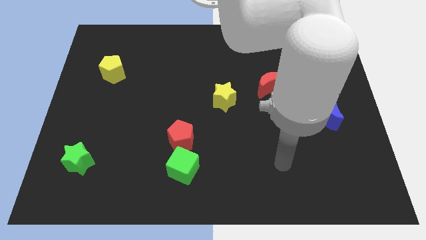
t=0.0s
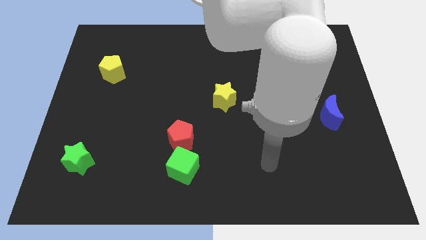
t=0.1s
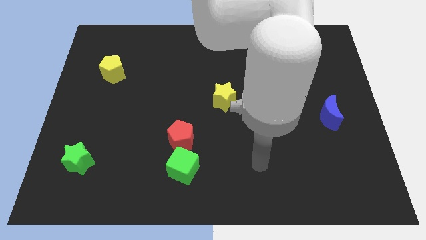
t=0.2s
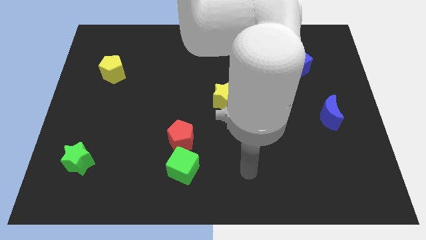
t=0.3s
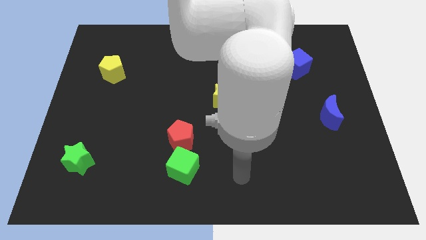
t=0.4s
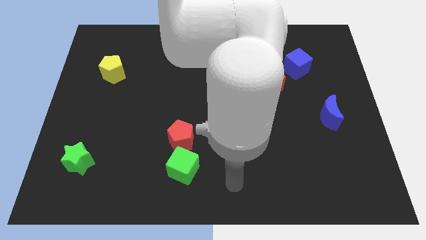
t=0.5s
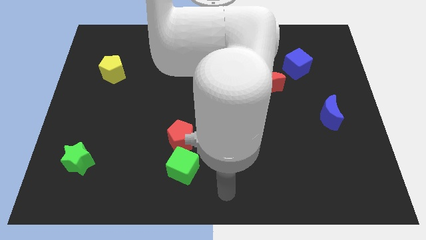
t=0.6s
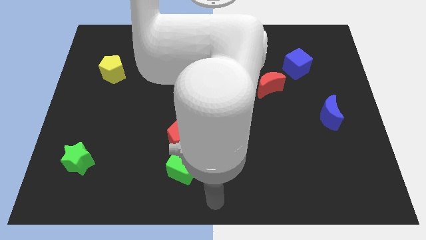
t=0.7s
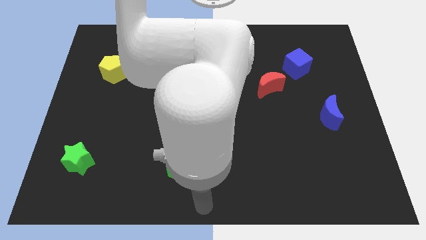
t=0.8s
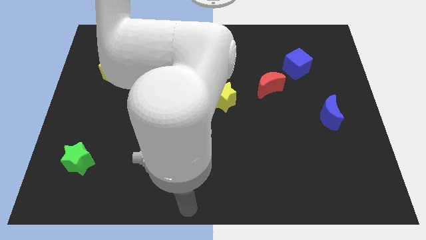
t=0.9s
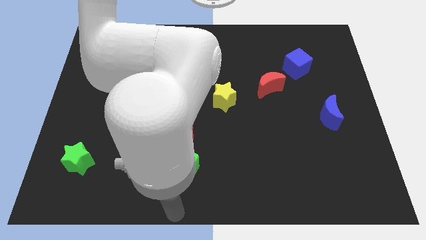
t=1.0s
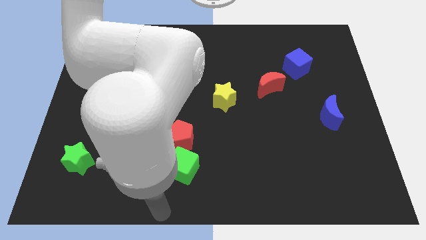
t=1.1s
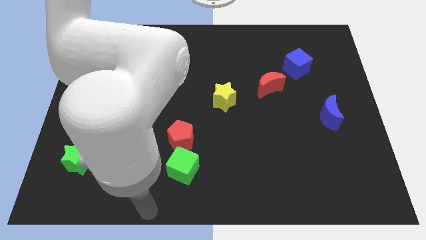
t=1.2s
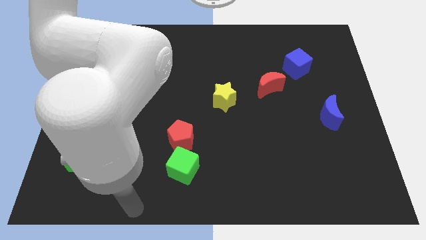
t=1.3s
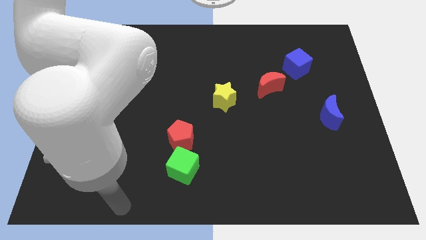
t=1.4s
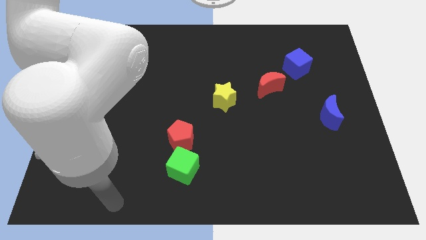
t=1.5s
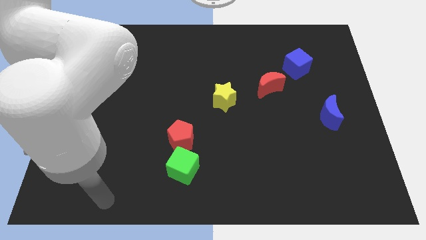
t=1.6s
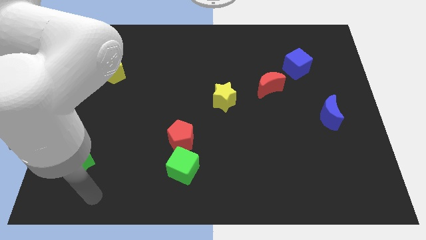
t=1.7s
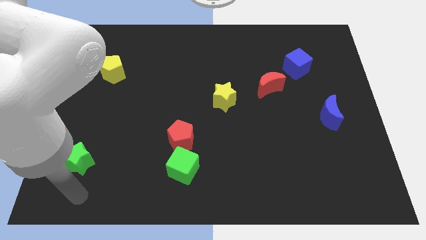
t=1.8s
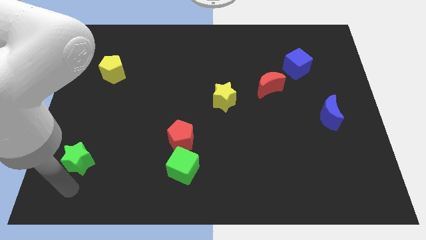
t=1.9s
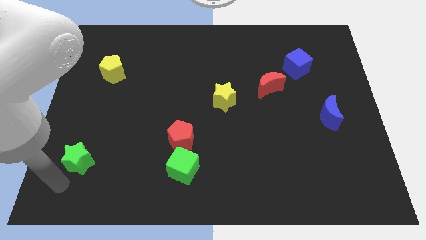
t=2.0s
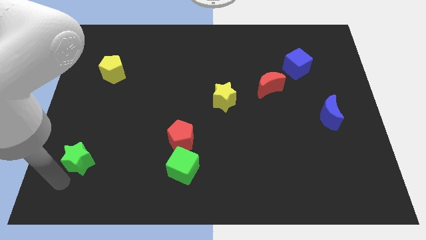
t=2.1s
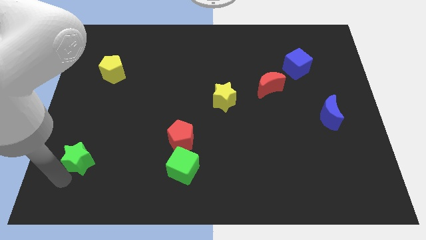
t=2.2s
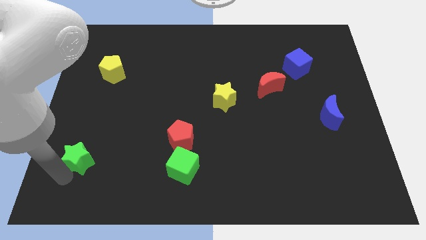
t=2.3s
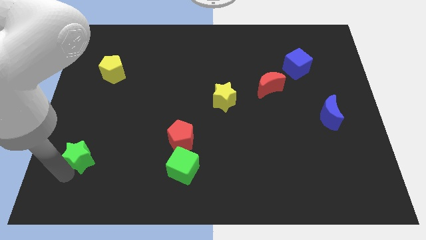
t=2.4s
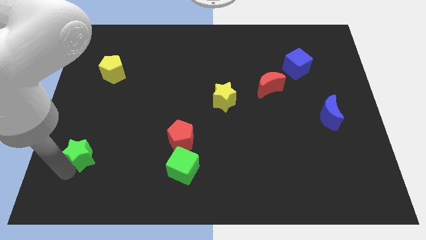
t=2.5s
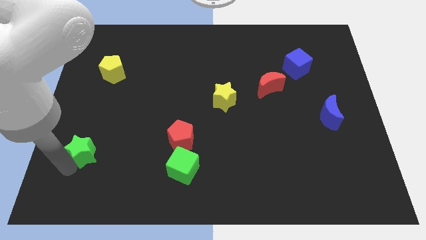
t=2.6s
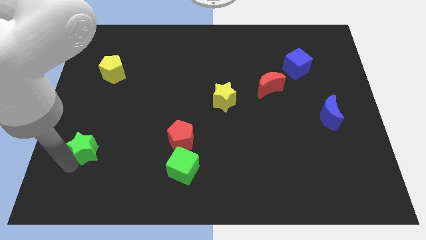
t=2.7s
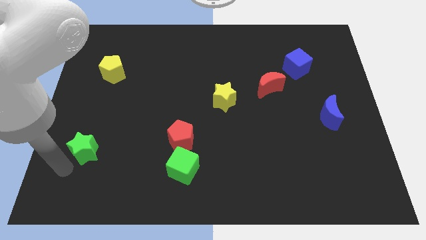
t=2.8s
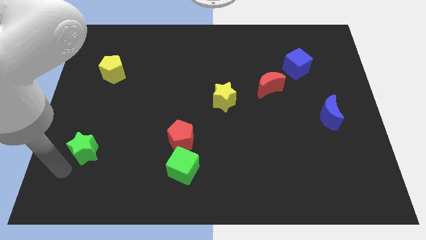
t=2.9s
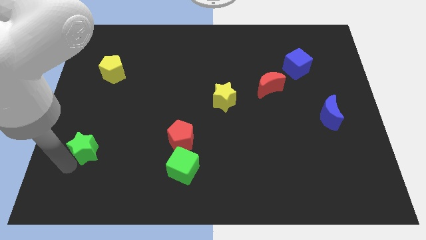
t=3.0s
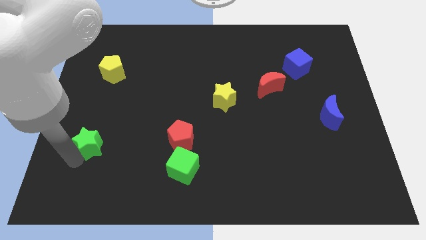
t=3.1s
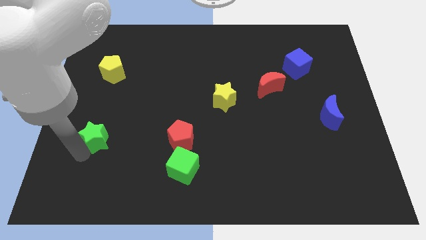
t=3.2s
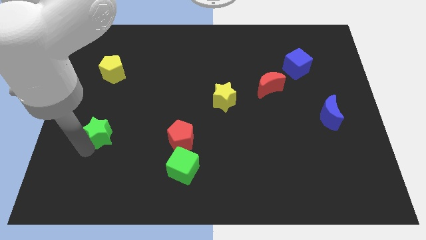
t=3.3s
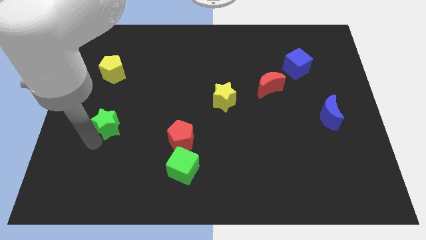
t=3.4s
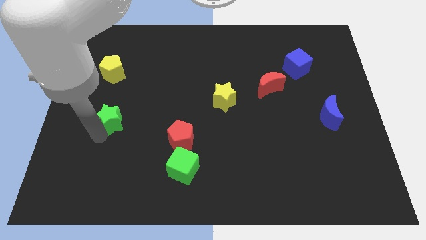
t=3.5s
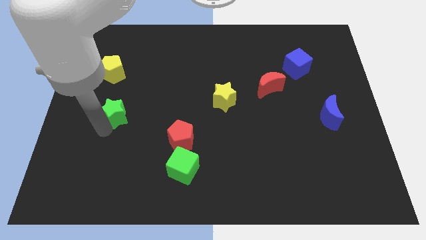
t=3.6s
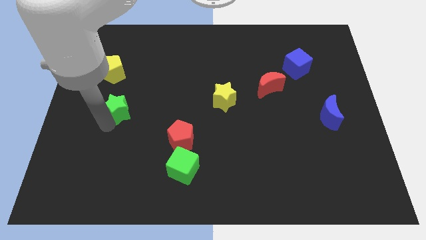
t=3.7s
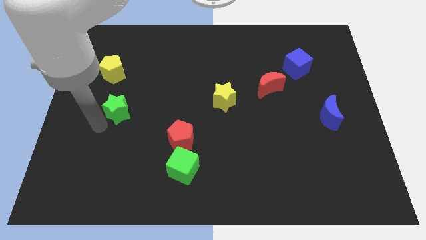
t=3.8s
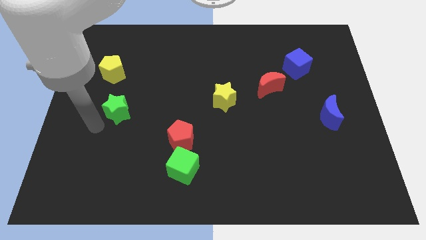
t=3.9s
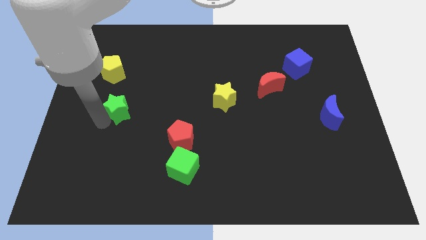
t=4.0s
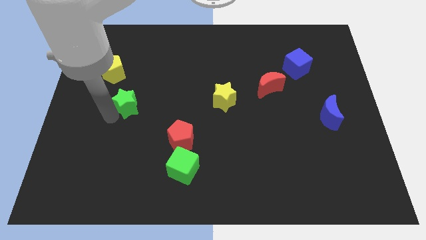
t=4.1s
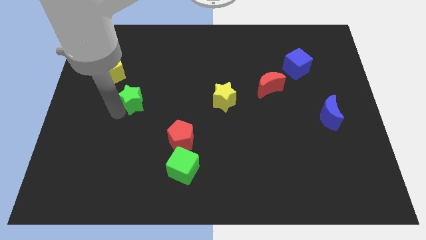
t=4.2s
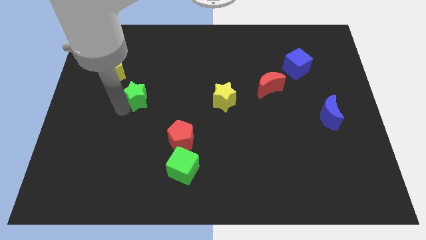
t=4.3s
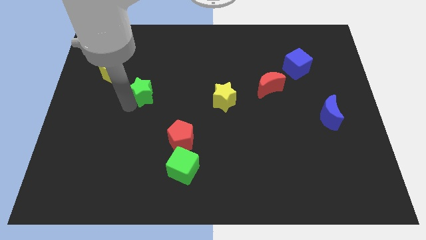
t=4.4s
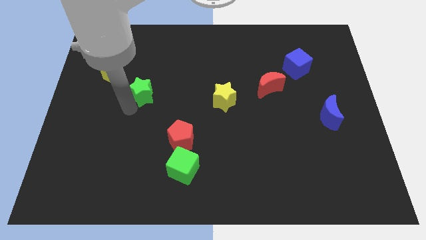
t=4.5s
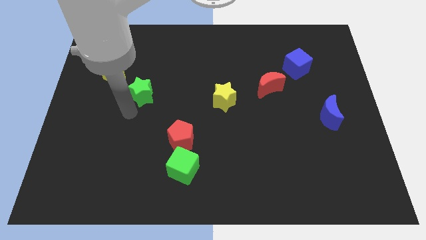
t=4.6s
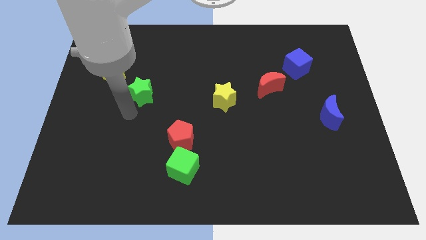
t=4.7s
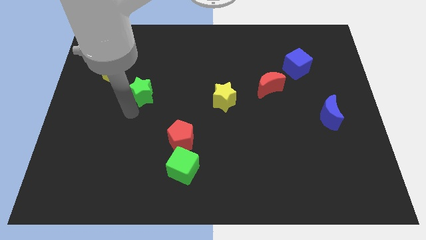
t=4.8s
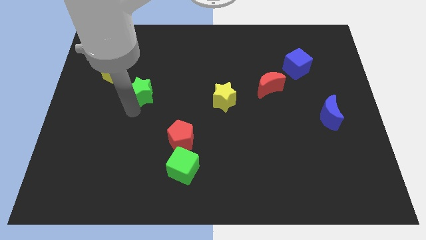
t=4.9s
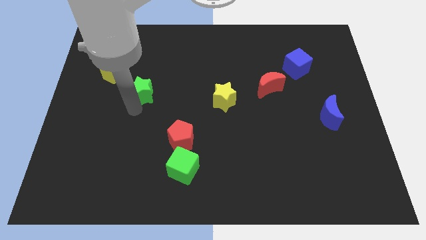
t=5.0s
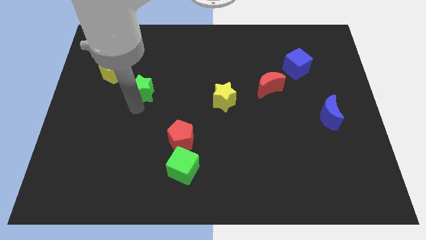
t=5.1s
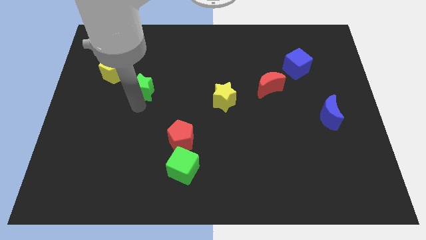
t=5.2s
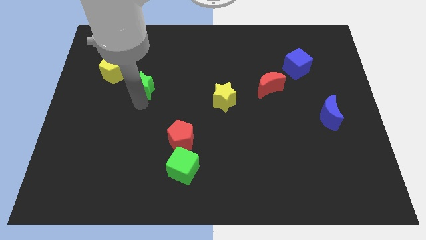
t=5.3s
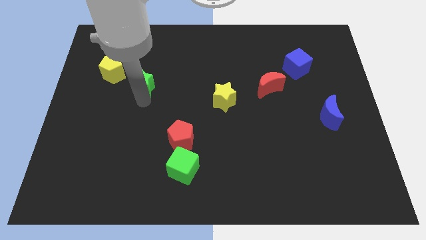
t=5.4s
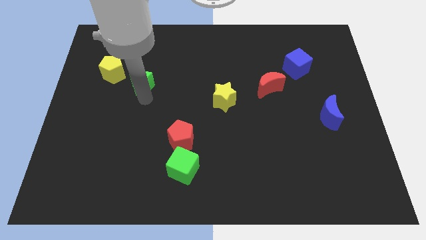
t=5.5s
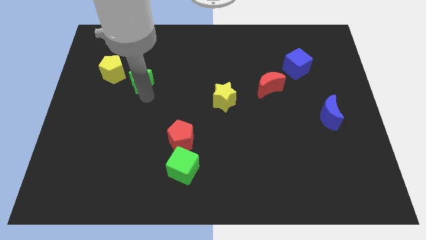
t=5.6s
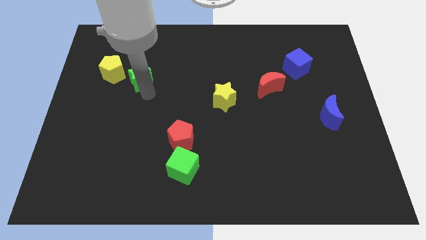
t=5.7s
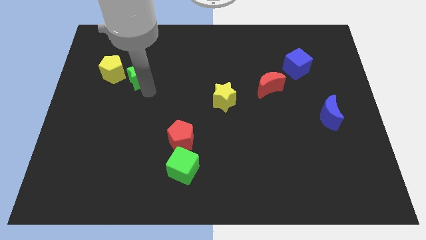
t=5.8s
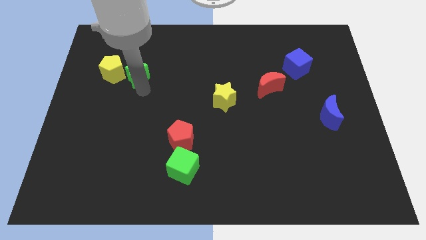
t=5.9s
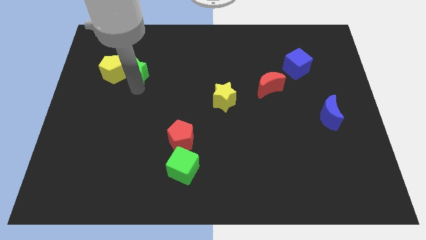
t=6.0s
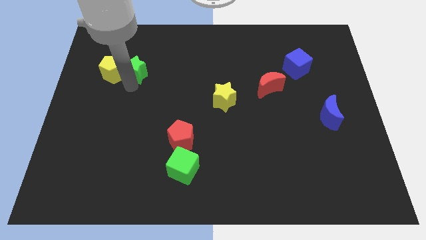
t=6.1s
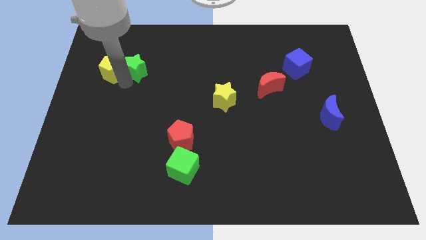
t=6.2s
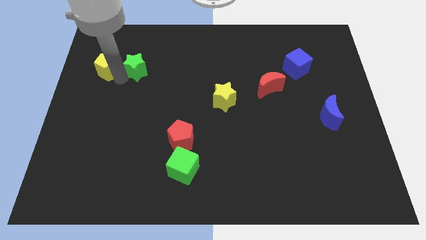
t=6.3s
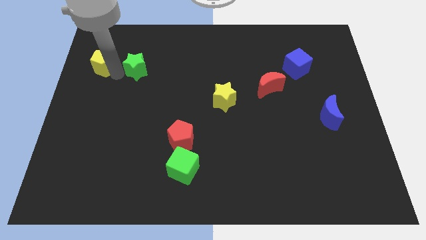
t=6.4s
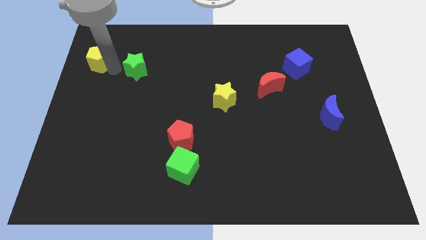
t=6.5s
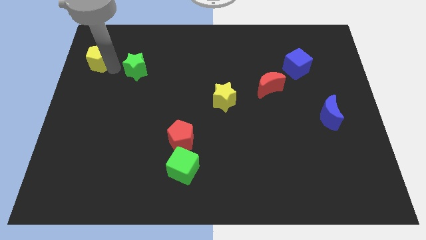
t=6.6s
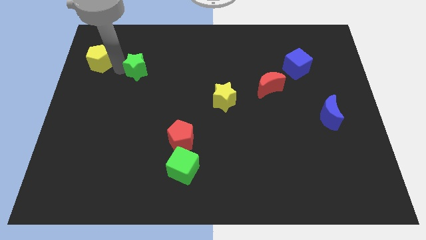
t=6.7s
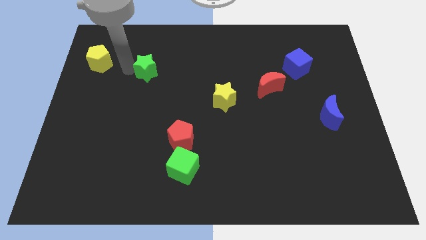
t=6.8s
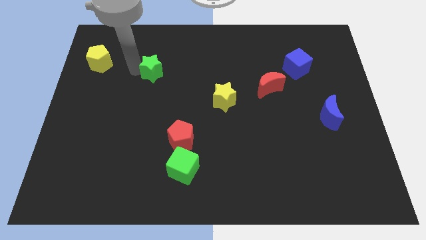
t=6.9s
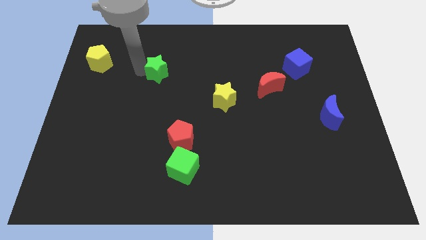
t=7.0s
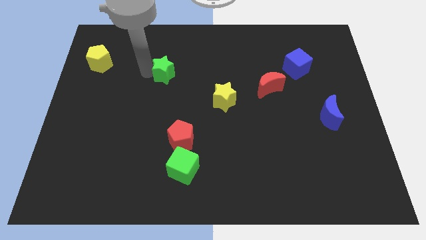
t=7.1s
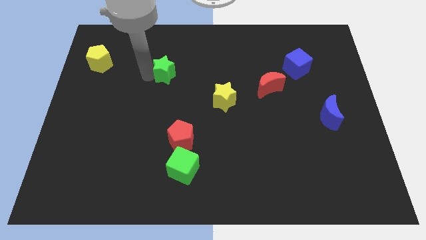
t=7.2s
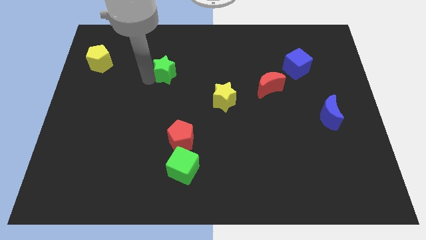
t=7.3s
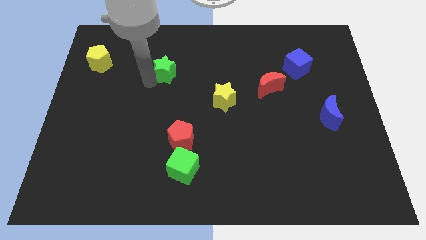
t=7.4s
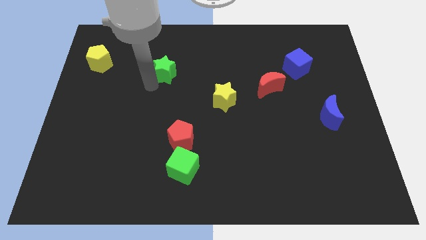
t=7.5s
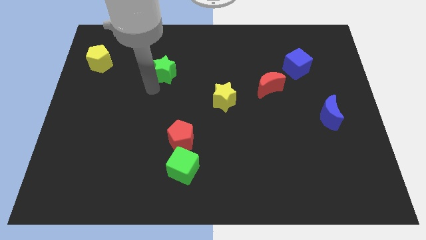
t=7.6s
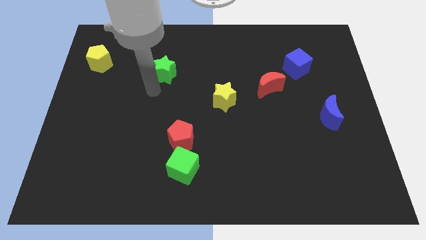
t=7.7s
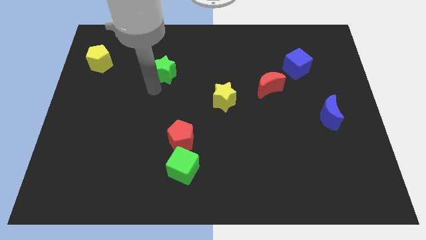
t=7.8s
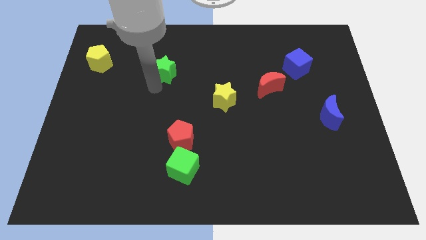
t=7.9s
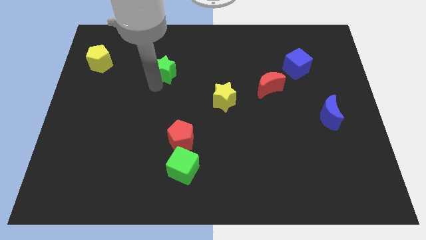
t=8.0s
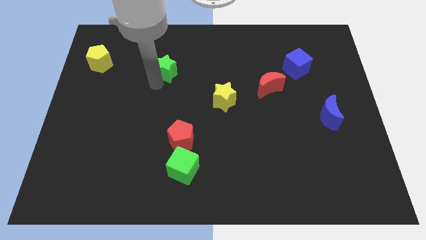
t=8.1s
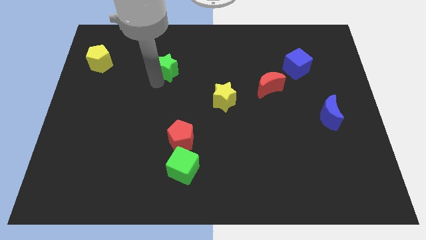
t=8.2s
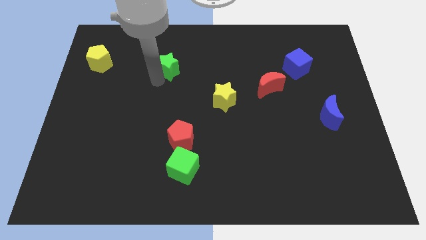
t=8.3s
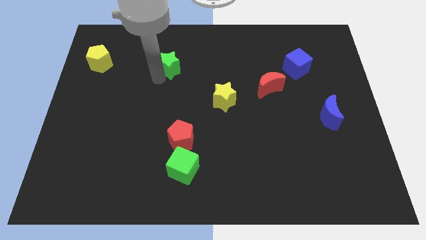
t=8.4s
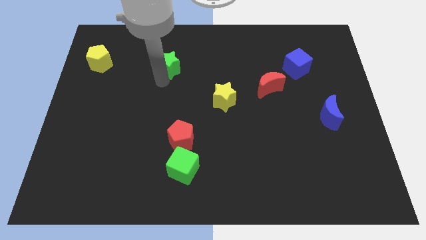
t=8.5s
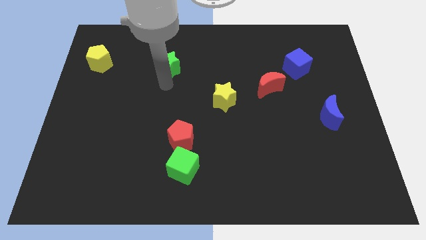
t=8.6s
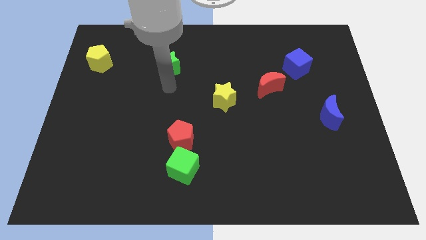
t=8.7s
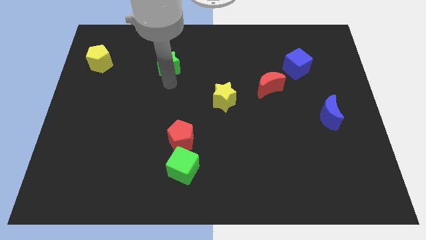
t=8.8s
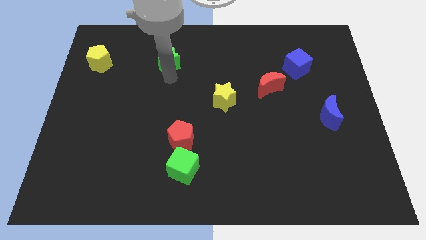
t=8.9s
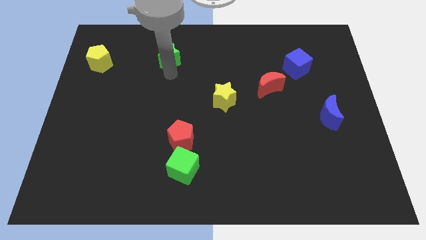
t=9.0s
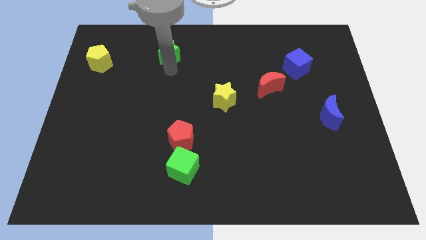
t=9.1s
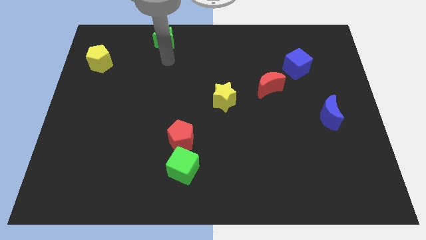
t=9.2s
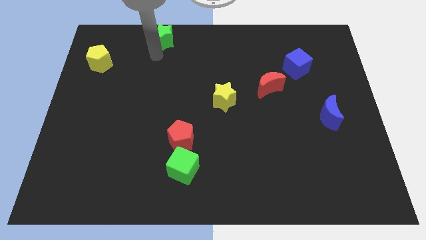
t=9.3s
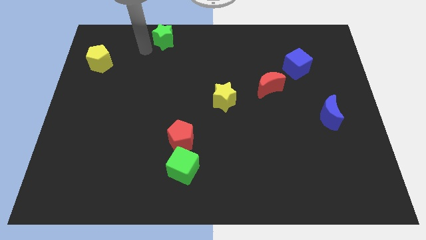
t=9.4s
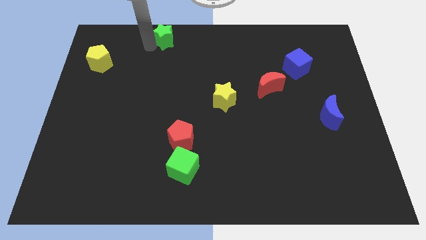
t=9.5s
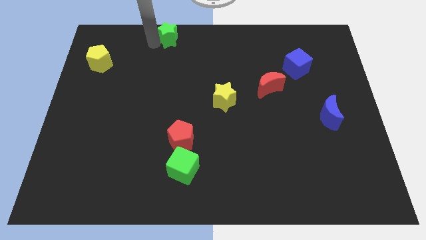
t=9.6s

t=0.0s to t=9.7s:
put the green star to the top side
